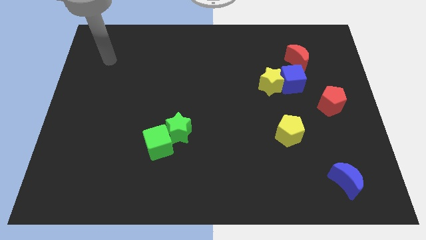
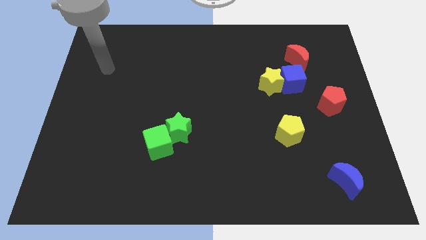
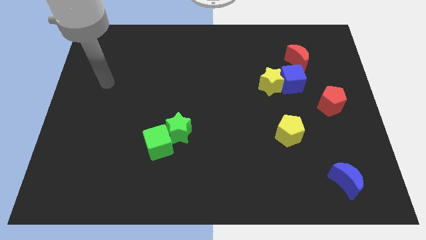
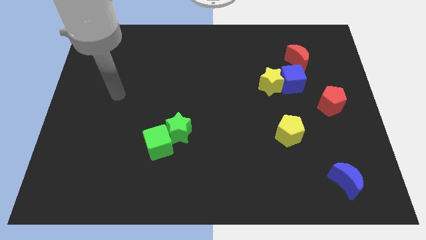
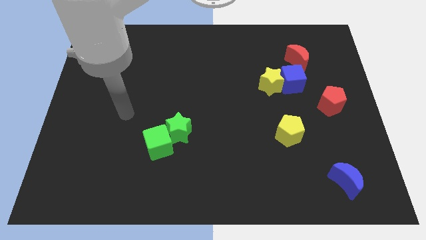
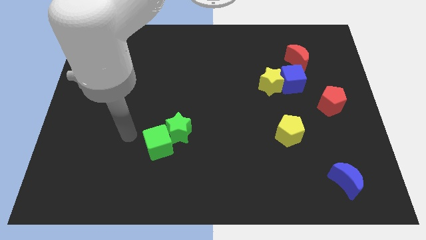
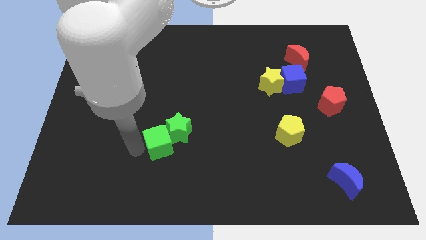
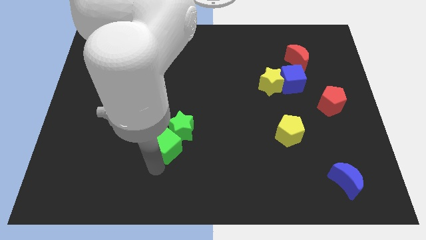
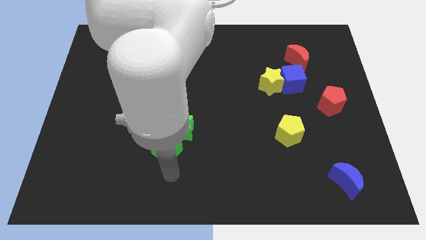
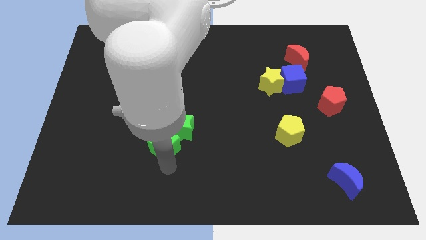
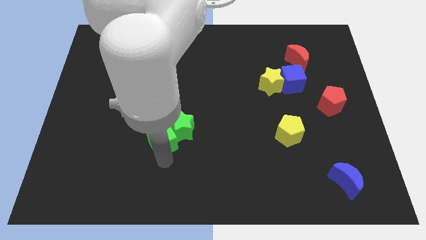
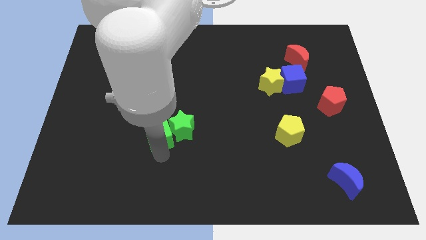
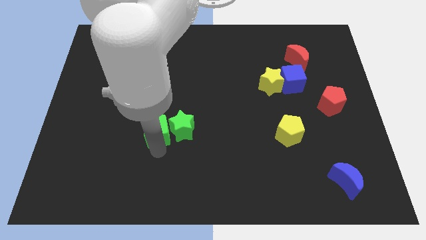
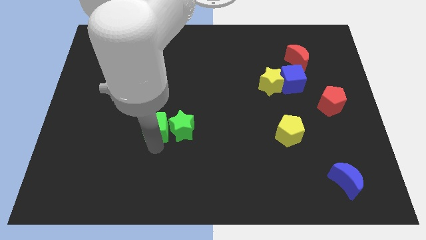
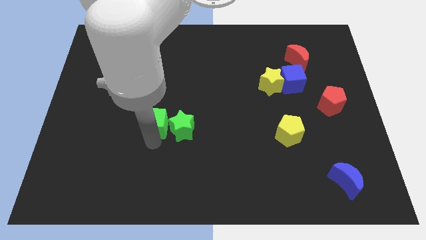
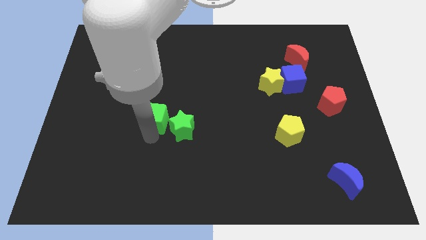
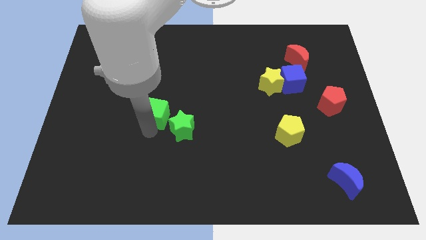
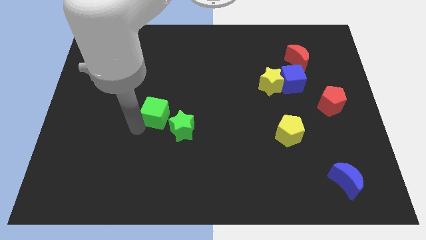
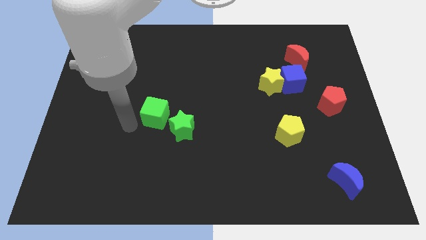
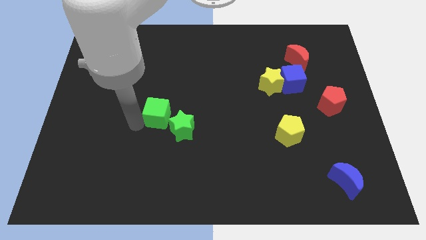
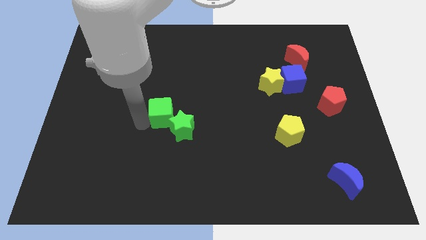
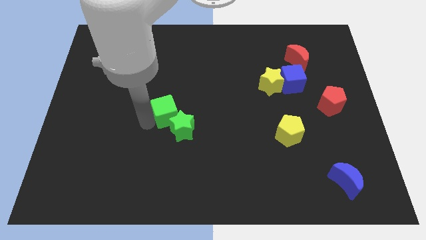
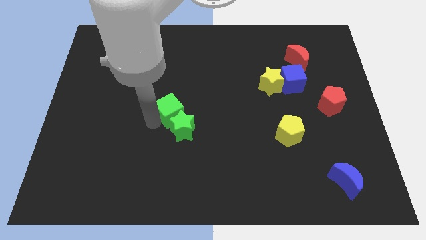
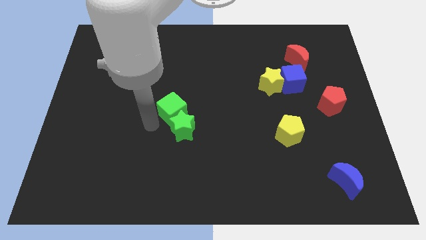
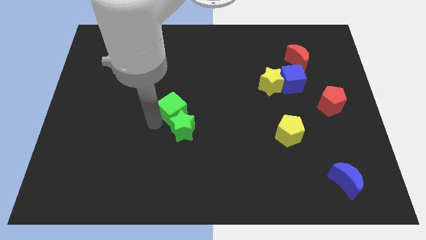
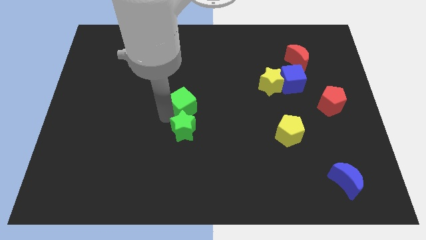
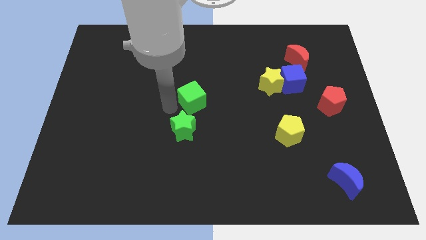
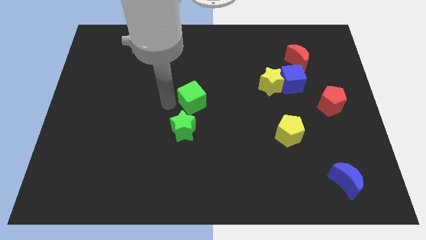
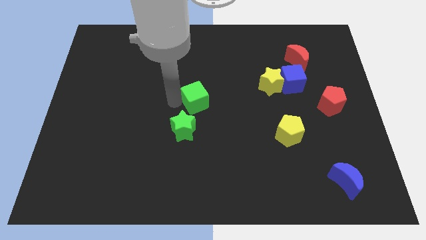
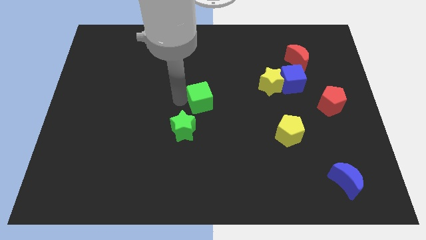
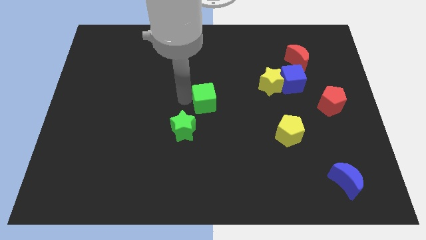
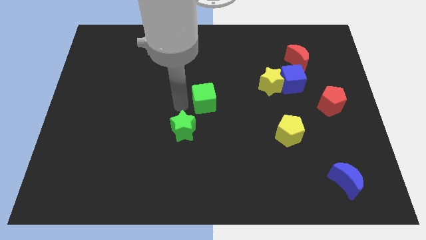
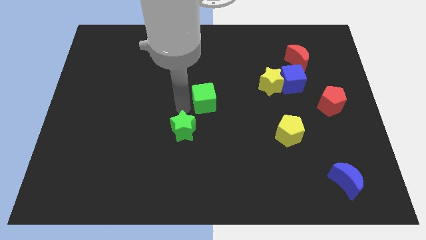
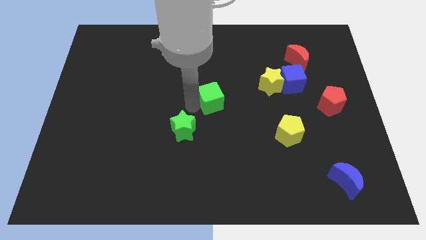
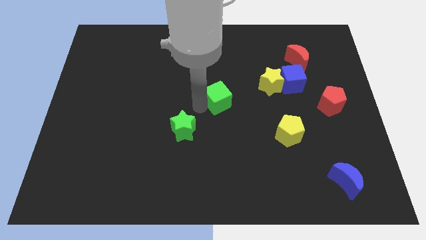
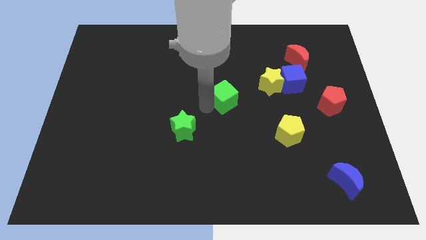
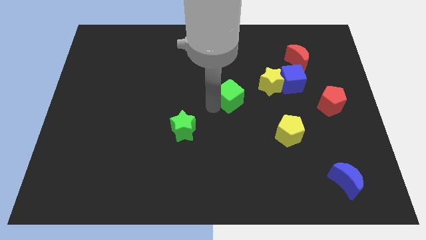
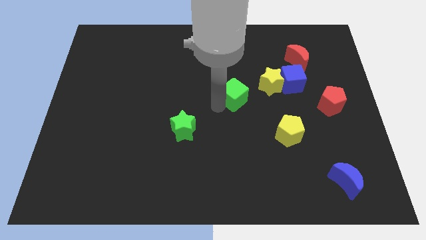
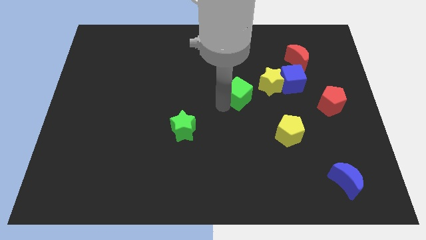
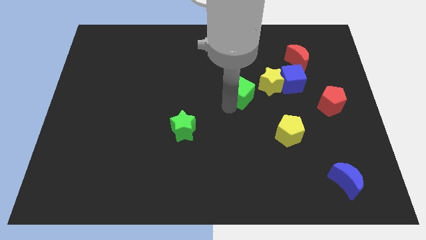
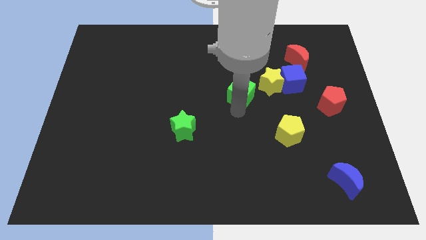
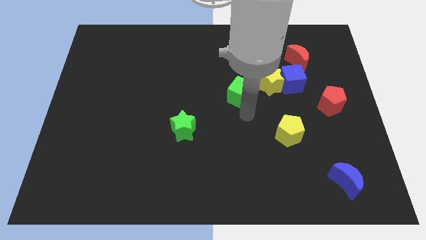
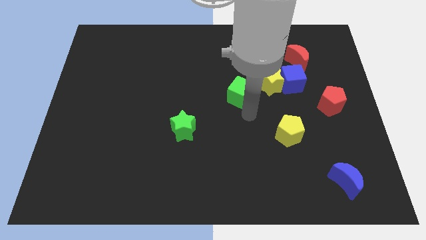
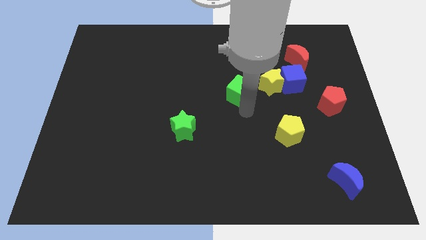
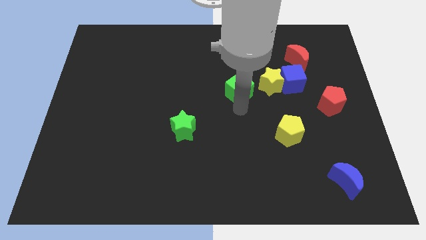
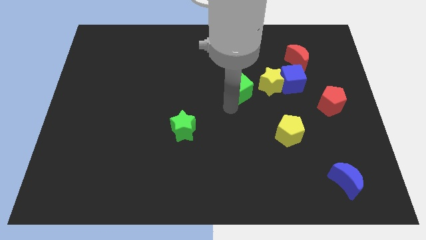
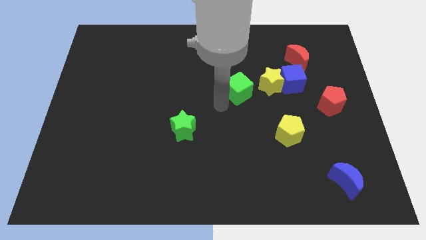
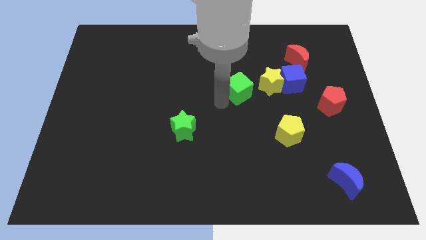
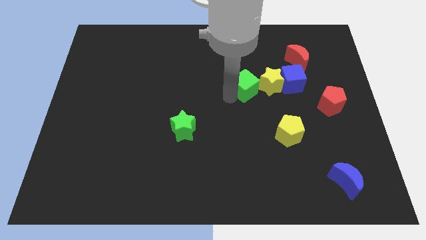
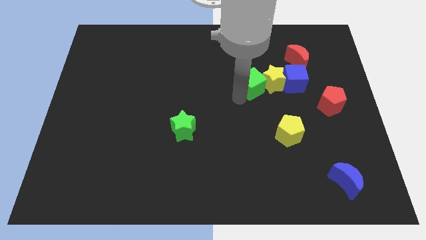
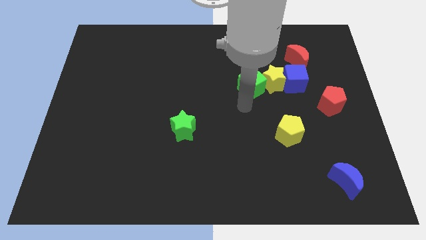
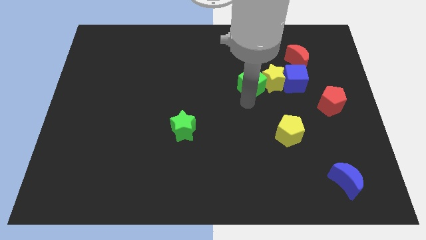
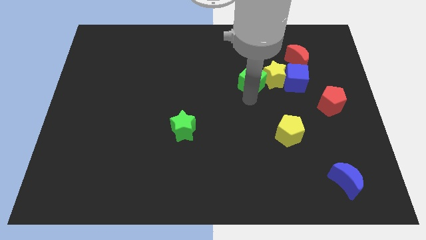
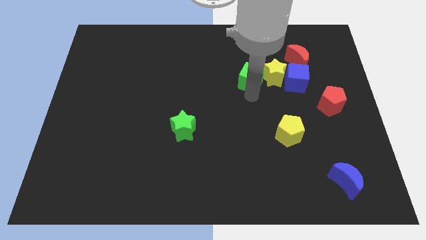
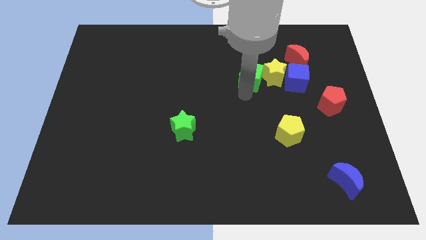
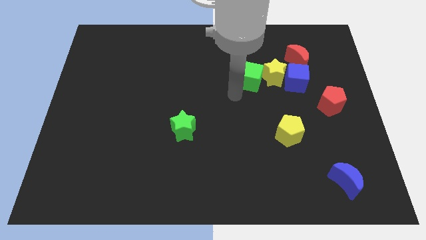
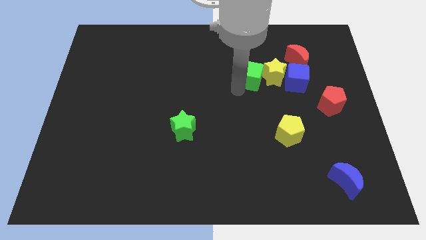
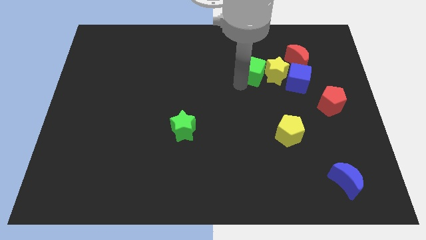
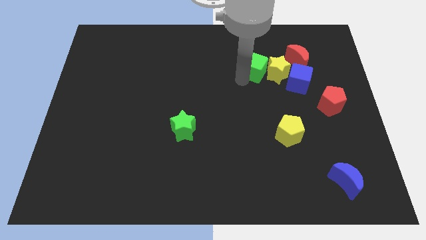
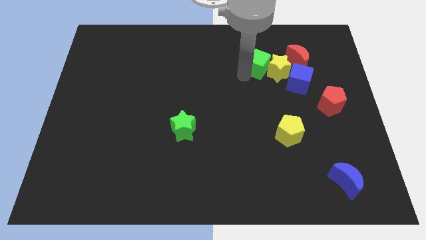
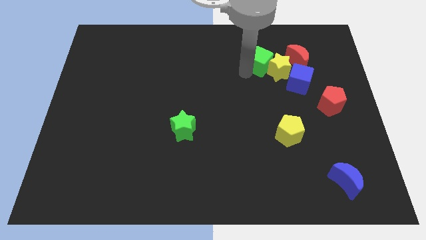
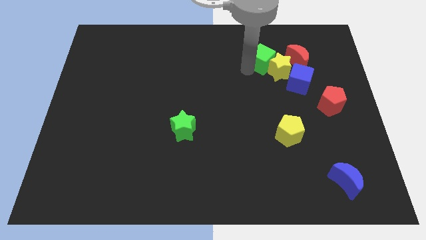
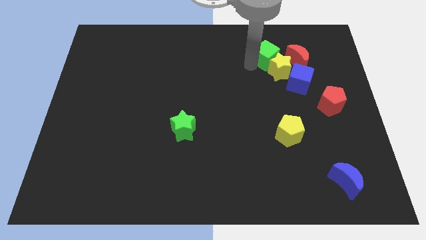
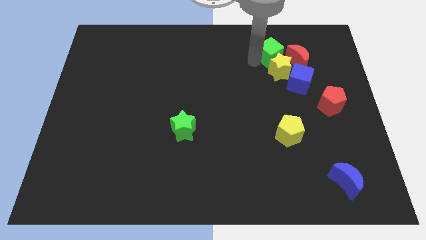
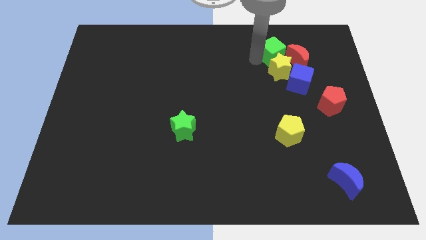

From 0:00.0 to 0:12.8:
push the green cube to the top right side of the yellow star

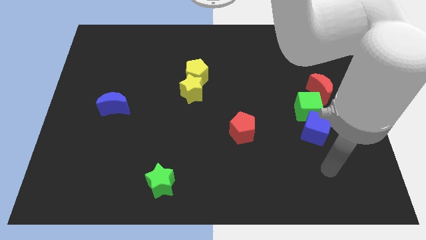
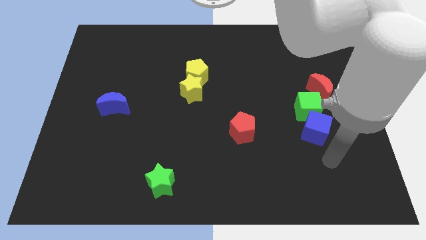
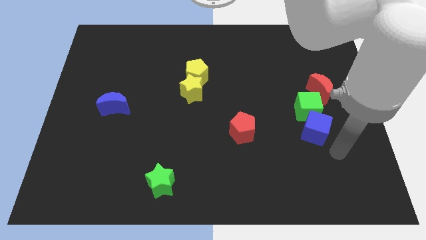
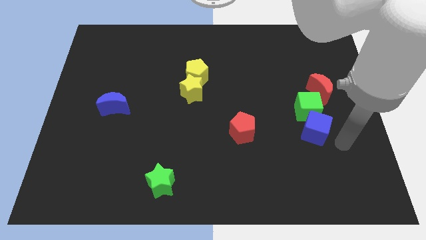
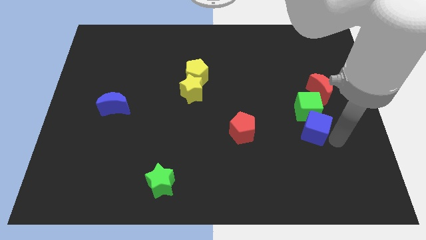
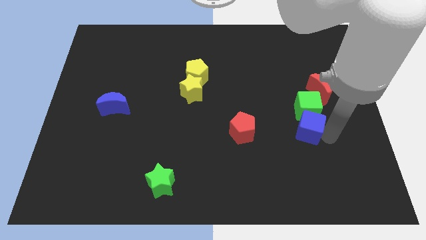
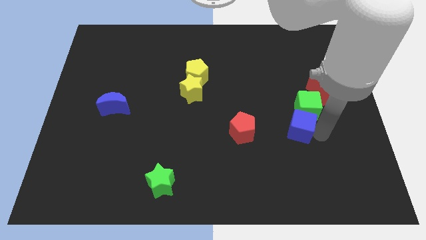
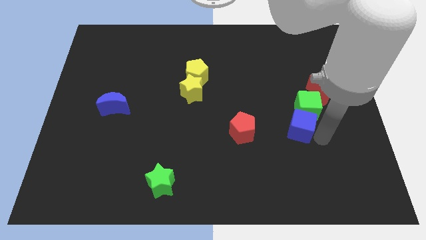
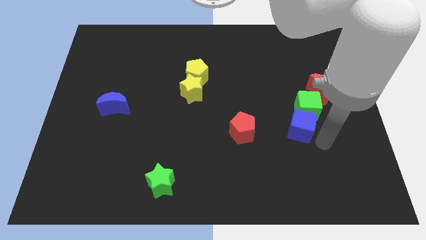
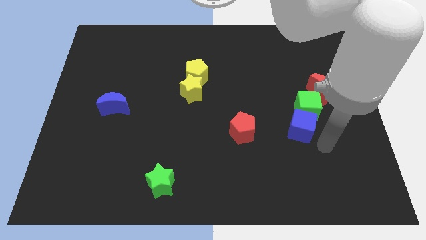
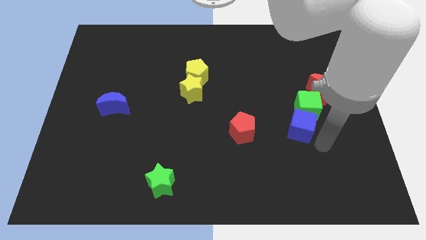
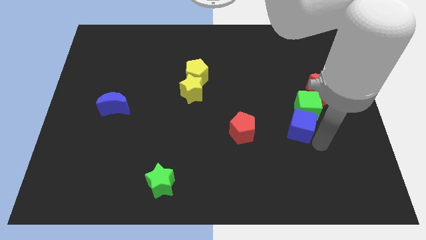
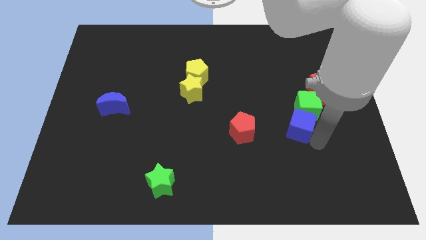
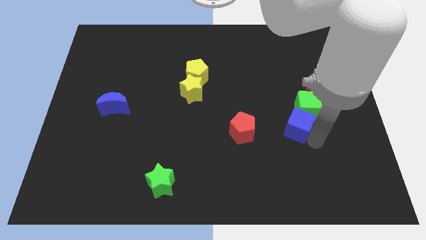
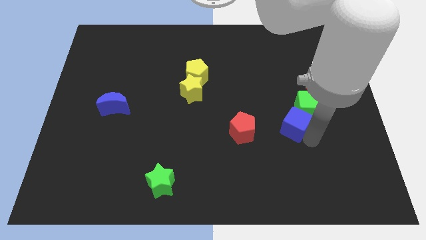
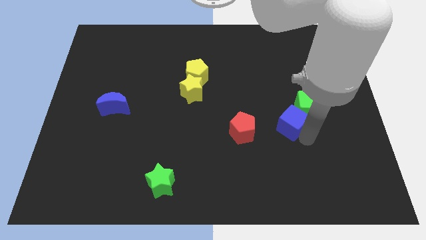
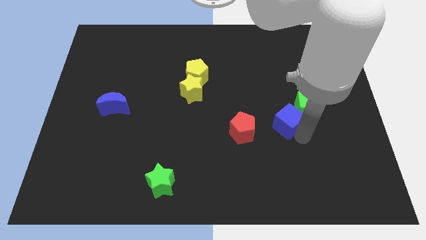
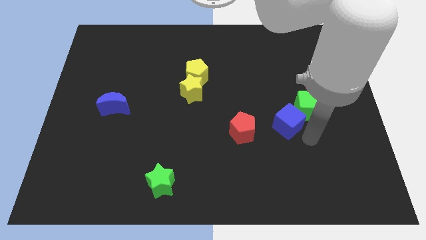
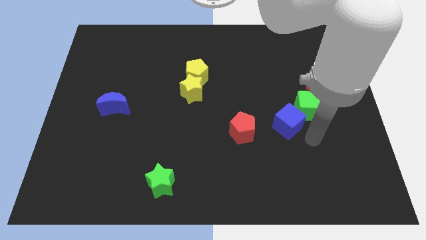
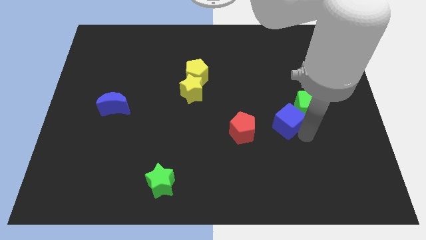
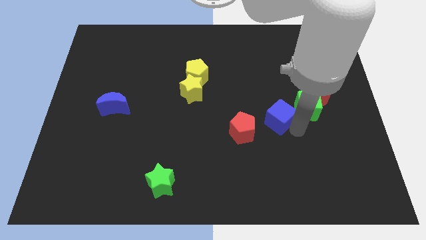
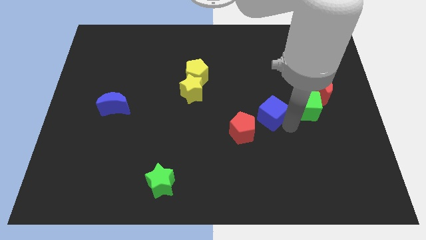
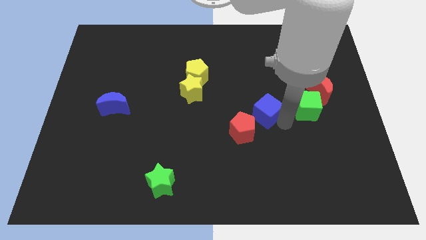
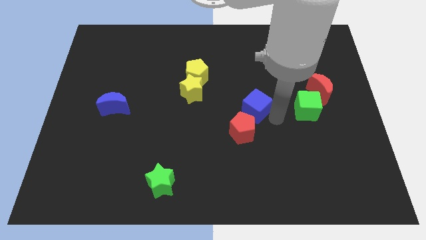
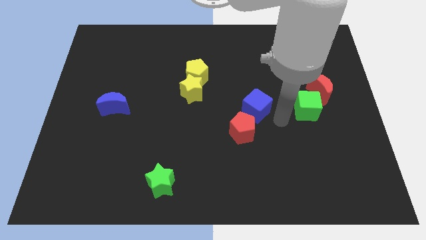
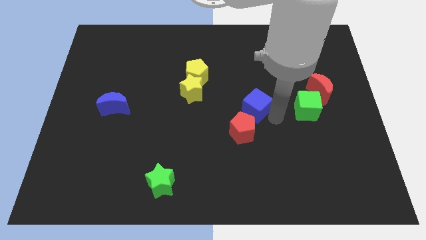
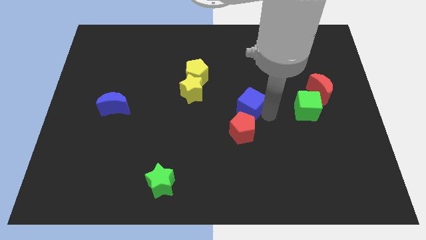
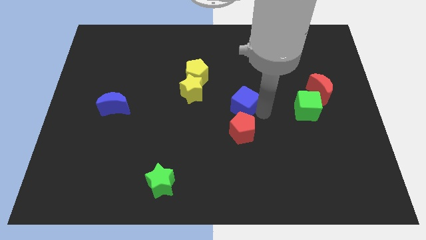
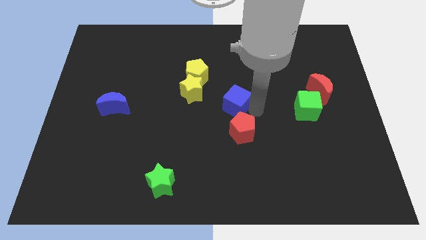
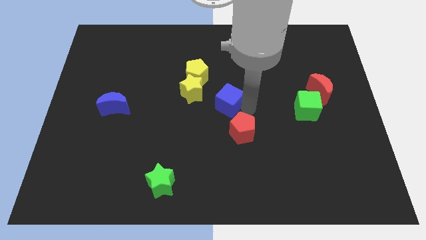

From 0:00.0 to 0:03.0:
move the blue cube to the bottom right side of the yellow pentagon
